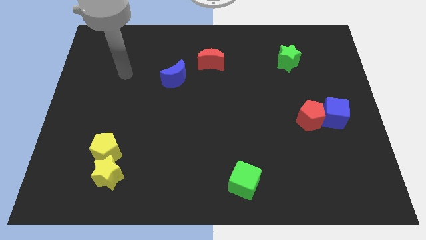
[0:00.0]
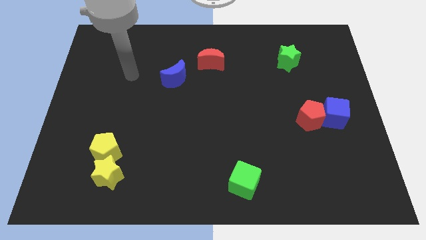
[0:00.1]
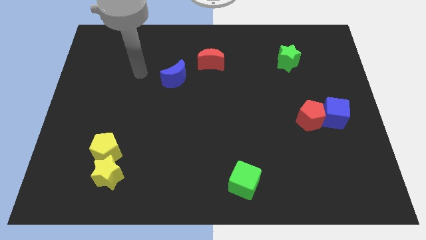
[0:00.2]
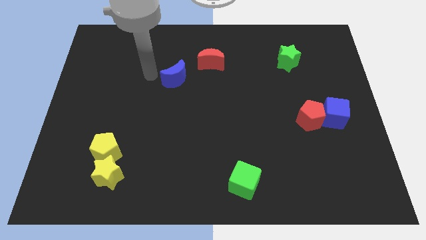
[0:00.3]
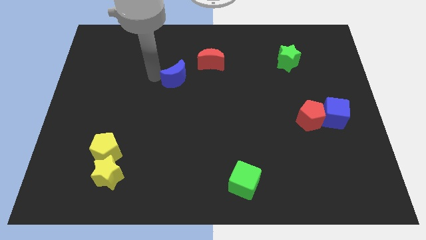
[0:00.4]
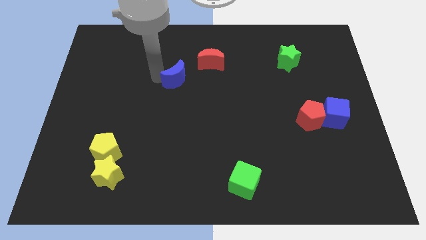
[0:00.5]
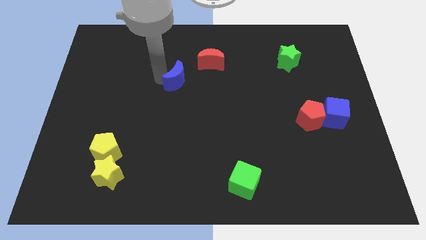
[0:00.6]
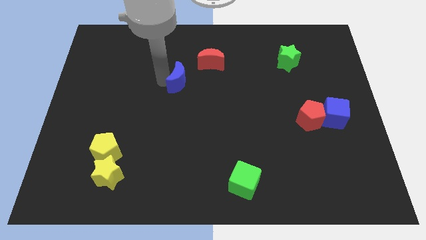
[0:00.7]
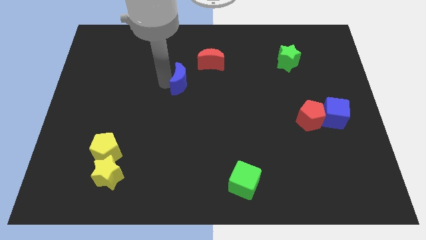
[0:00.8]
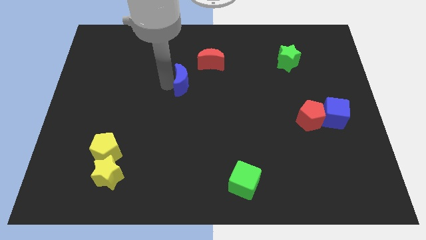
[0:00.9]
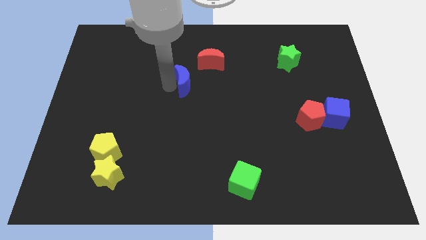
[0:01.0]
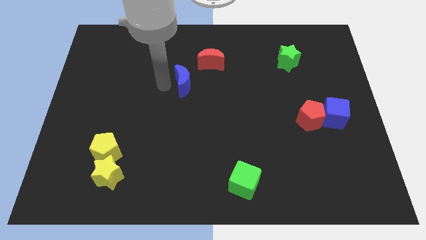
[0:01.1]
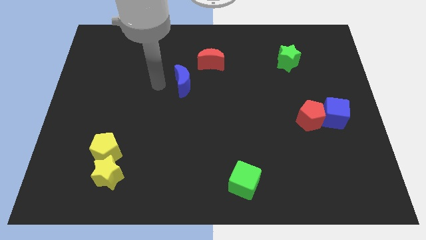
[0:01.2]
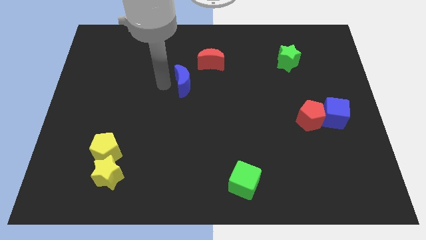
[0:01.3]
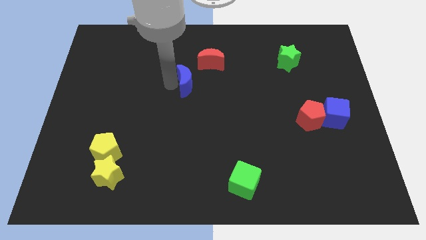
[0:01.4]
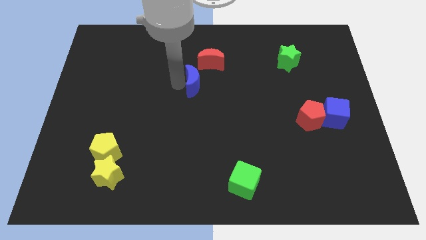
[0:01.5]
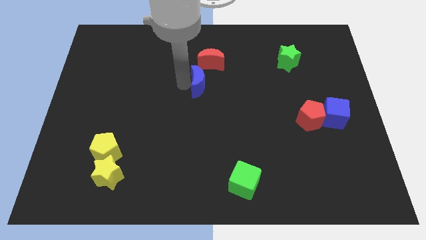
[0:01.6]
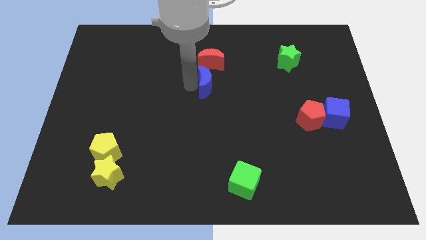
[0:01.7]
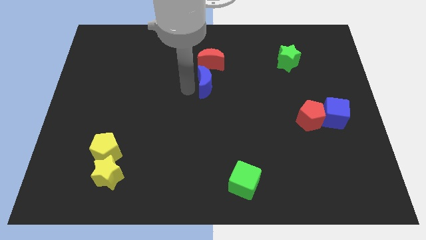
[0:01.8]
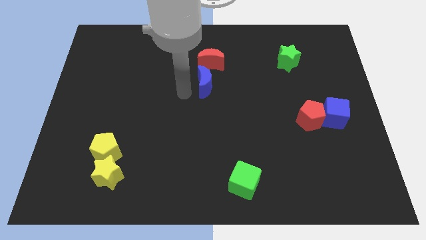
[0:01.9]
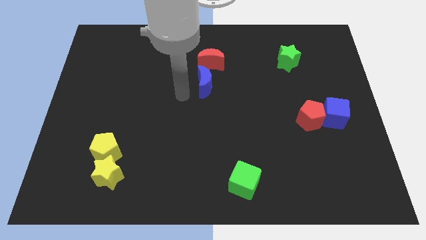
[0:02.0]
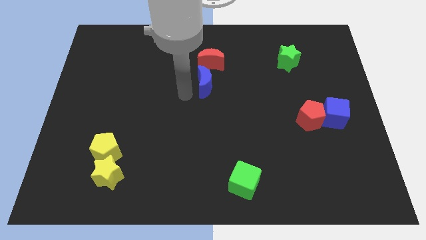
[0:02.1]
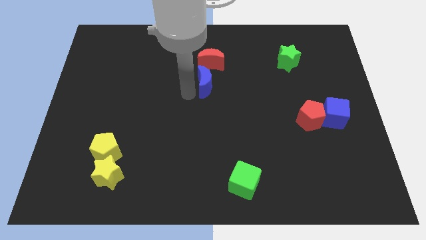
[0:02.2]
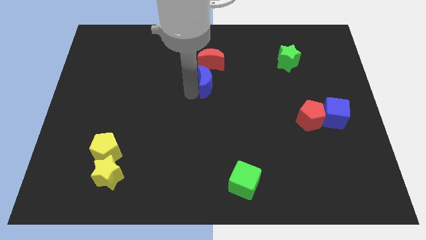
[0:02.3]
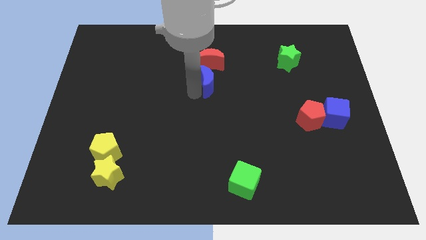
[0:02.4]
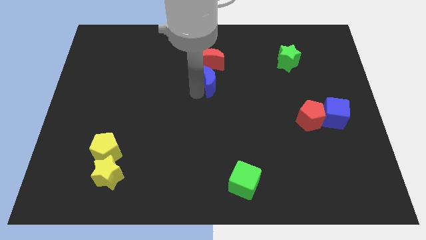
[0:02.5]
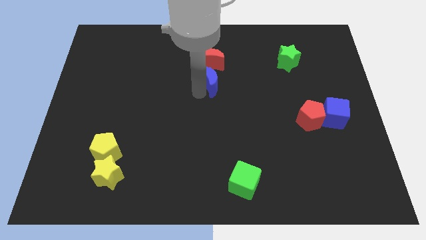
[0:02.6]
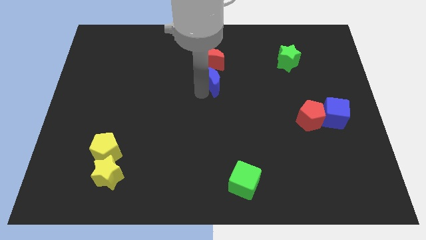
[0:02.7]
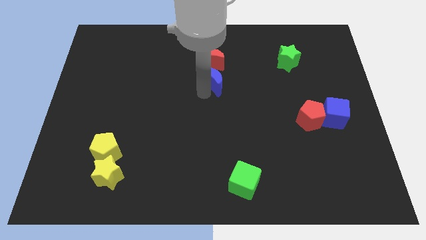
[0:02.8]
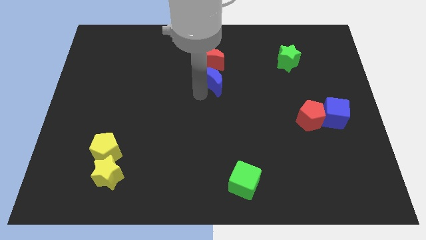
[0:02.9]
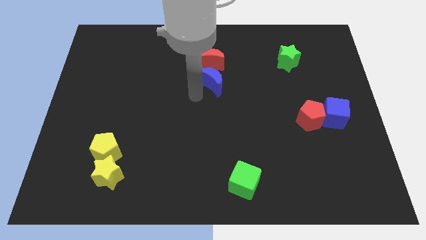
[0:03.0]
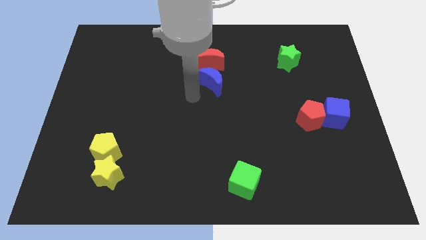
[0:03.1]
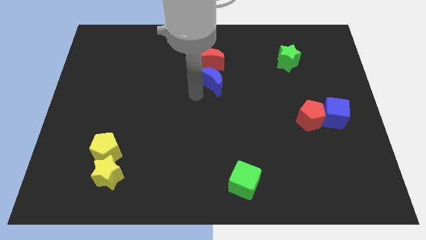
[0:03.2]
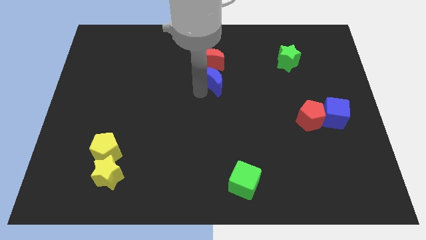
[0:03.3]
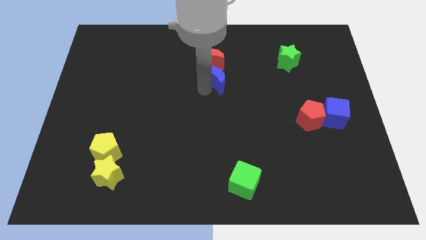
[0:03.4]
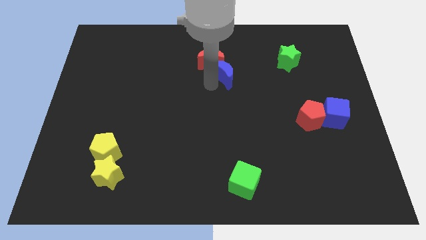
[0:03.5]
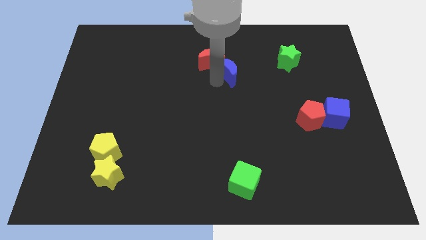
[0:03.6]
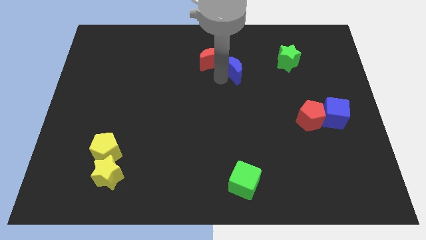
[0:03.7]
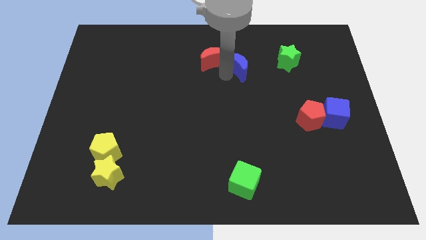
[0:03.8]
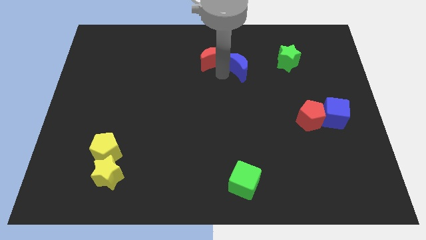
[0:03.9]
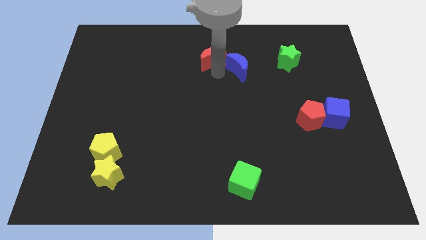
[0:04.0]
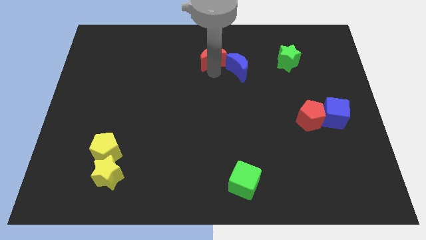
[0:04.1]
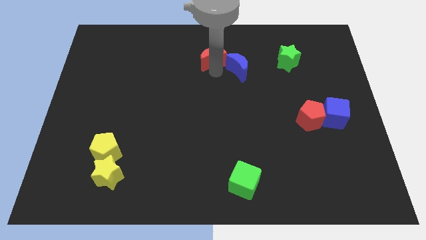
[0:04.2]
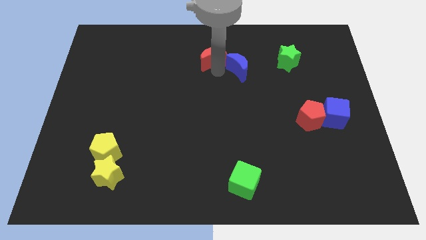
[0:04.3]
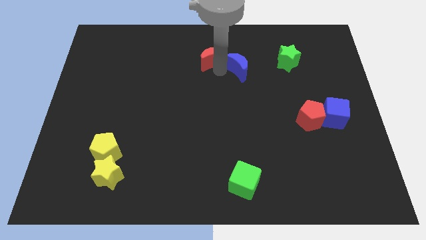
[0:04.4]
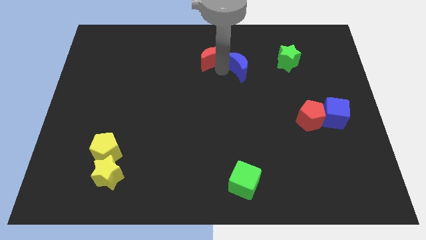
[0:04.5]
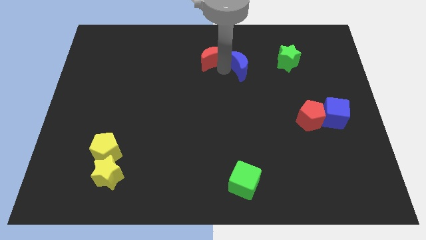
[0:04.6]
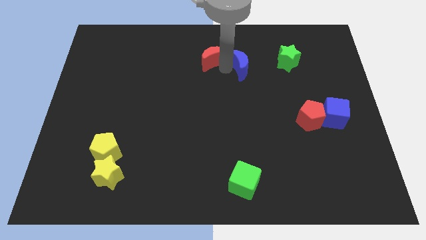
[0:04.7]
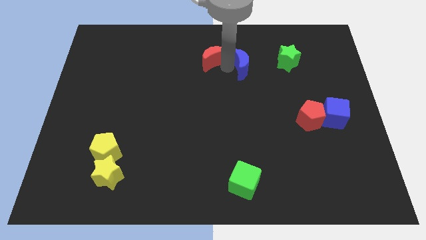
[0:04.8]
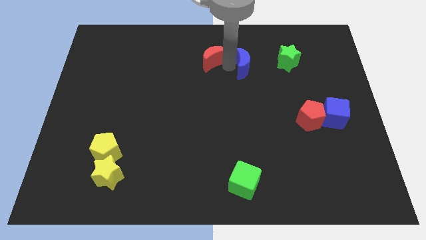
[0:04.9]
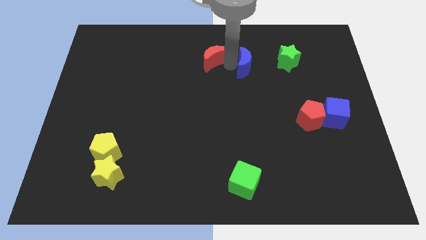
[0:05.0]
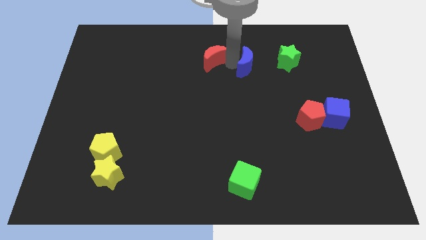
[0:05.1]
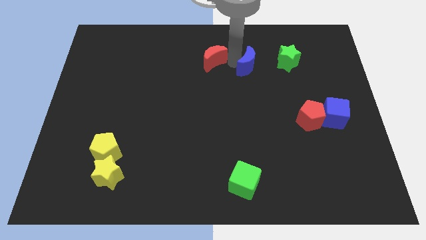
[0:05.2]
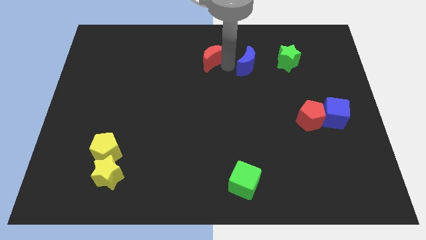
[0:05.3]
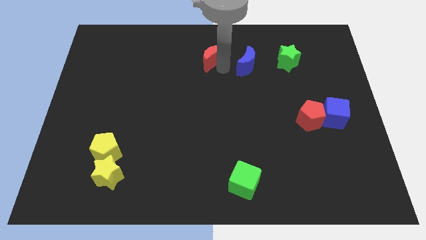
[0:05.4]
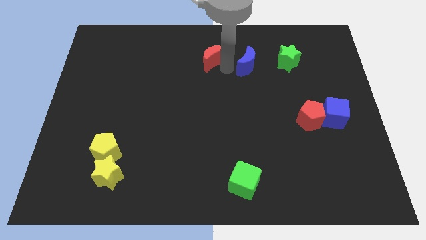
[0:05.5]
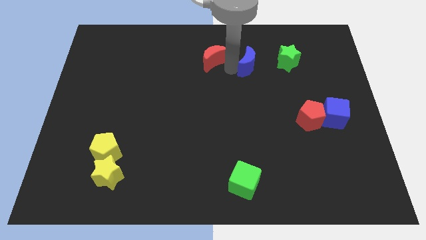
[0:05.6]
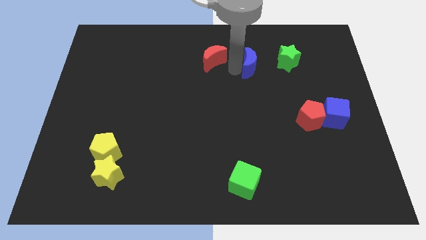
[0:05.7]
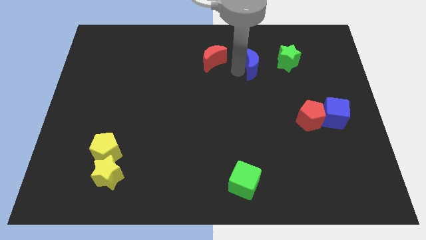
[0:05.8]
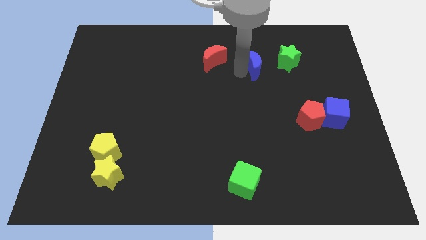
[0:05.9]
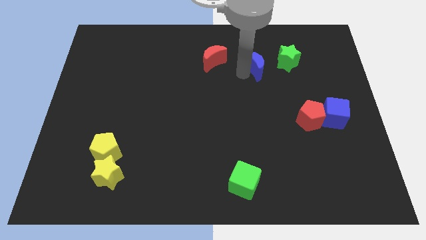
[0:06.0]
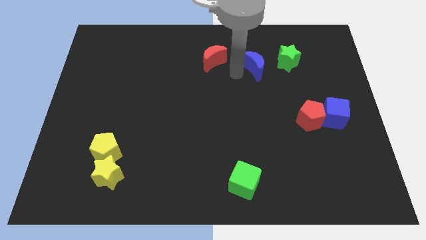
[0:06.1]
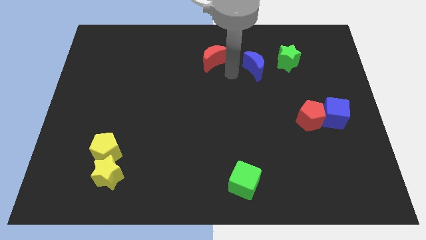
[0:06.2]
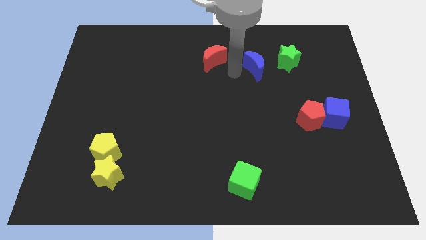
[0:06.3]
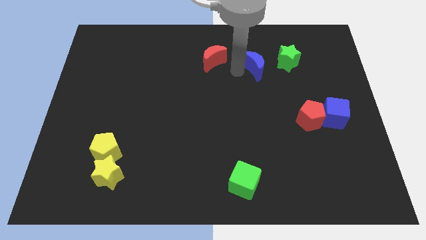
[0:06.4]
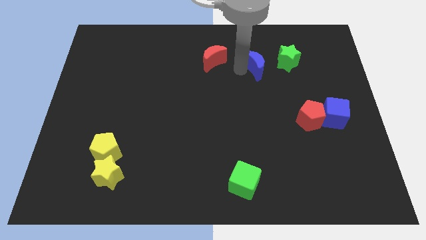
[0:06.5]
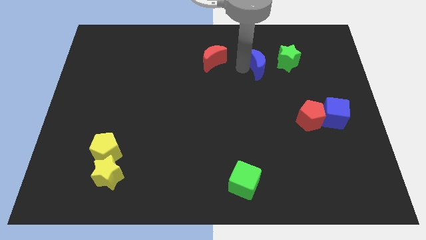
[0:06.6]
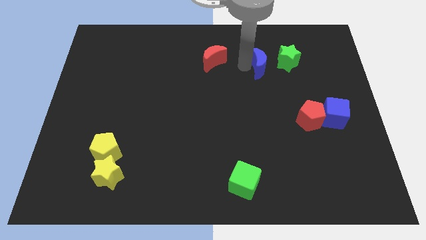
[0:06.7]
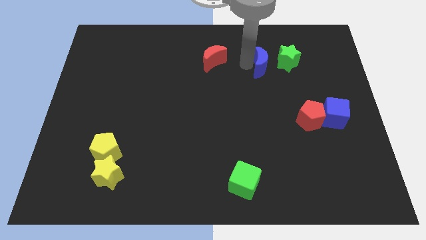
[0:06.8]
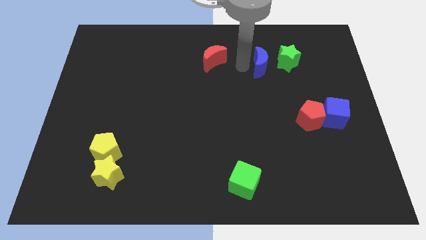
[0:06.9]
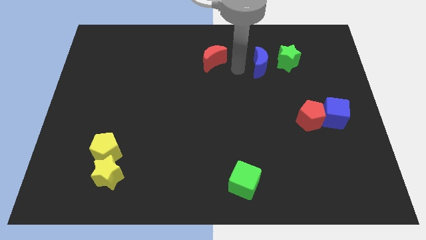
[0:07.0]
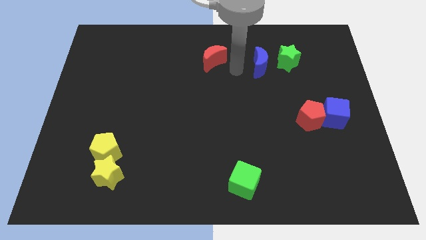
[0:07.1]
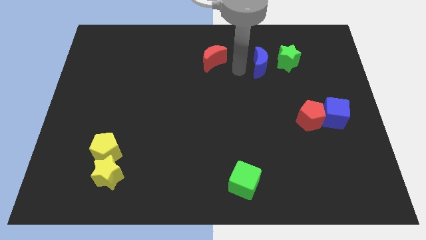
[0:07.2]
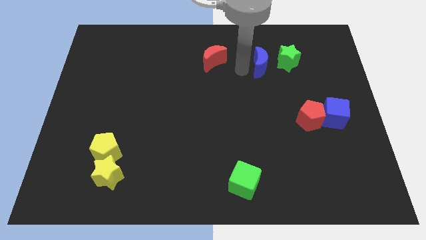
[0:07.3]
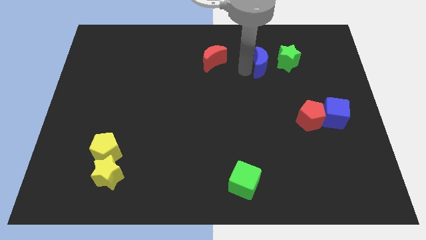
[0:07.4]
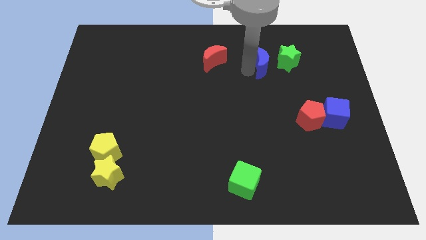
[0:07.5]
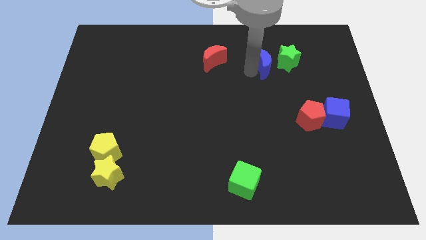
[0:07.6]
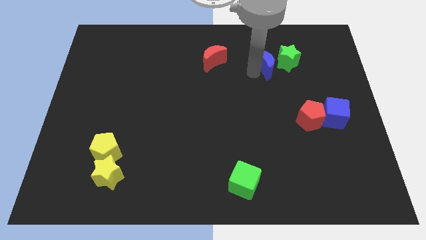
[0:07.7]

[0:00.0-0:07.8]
slide the blue moon close to the green star
